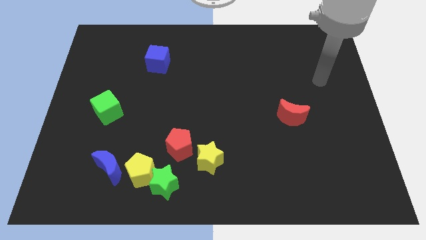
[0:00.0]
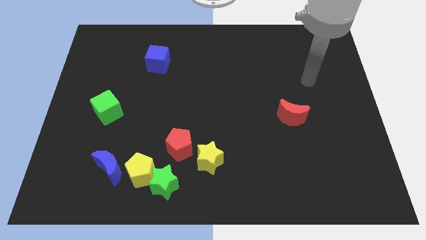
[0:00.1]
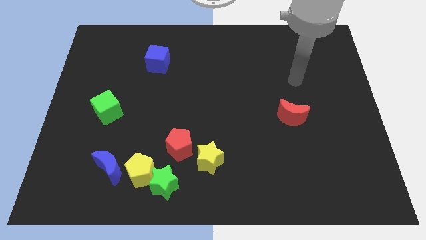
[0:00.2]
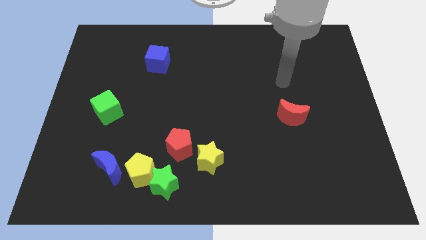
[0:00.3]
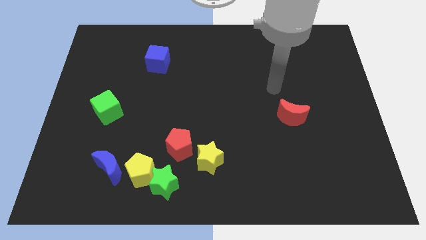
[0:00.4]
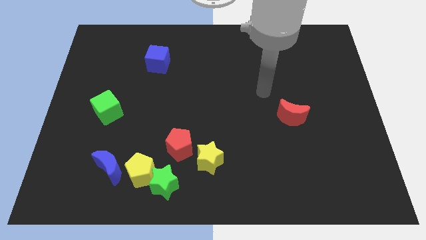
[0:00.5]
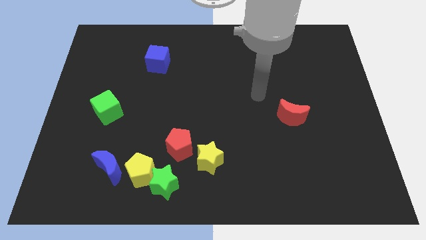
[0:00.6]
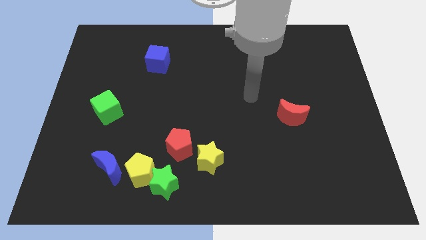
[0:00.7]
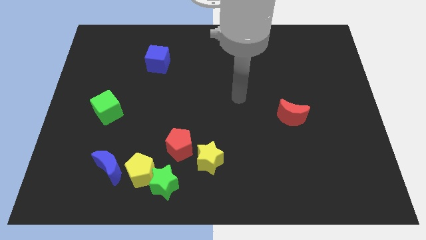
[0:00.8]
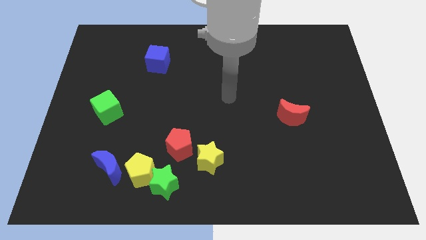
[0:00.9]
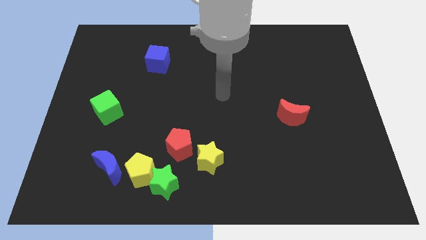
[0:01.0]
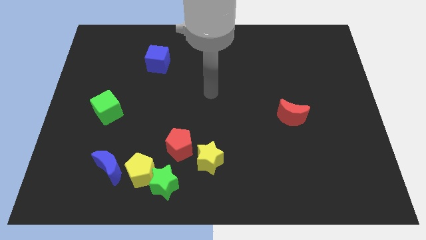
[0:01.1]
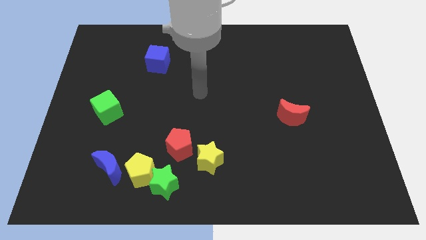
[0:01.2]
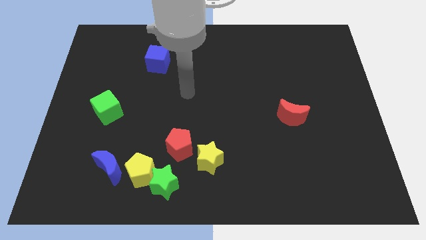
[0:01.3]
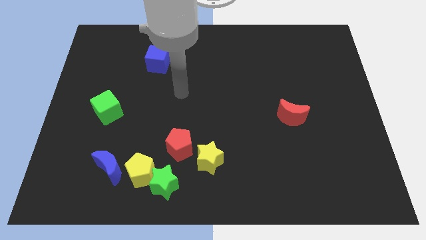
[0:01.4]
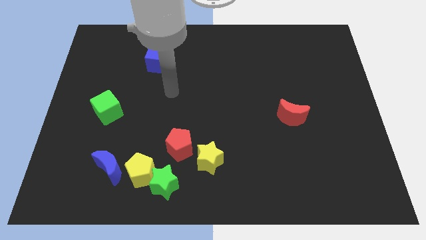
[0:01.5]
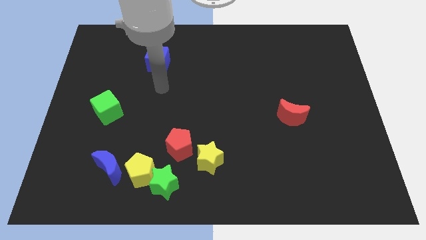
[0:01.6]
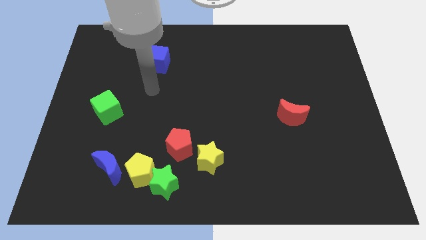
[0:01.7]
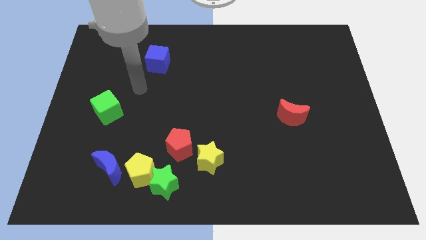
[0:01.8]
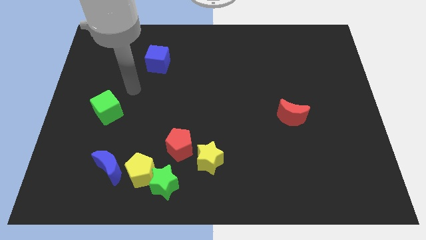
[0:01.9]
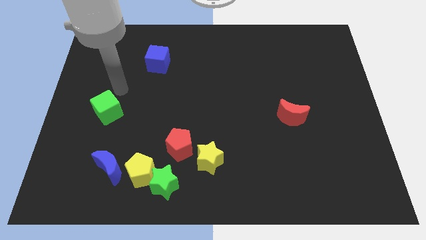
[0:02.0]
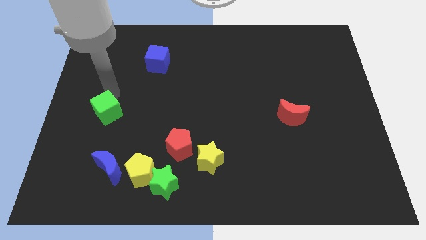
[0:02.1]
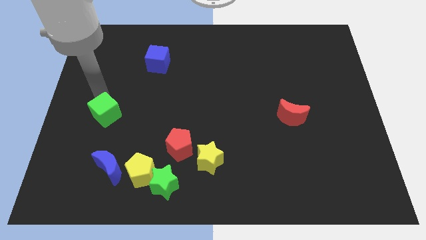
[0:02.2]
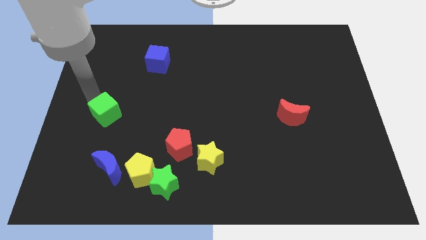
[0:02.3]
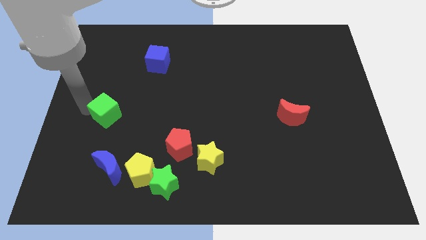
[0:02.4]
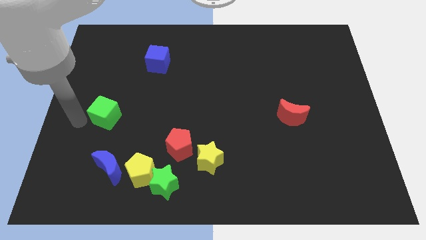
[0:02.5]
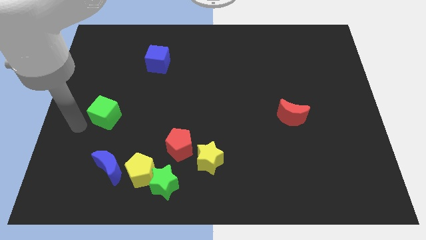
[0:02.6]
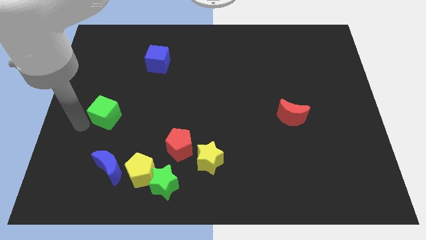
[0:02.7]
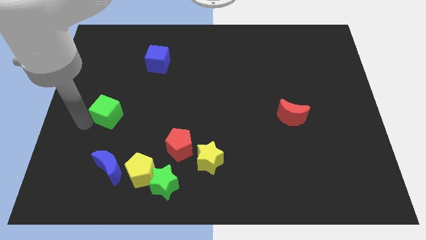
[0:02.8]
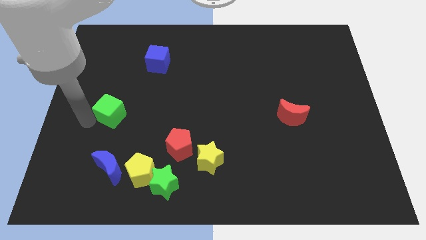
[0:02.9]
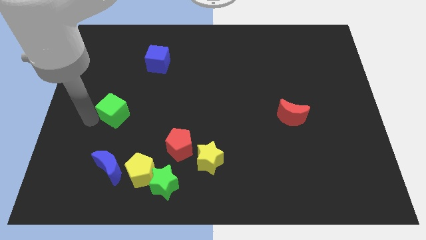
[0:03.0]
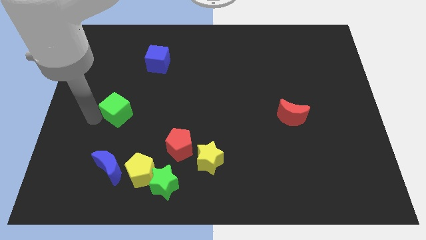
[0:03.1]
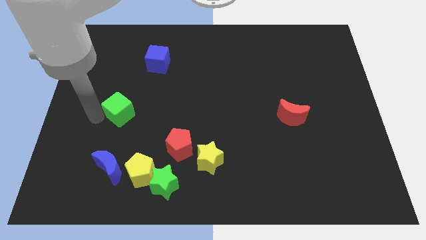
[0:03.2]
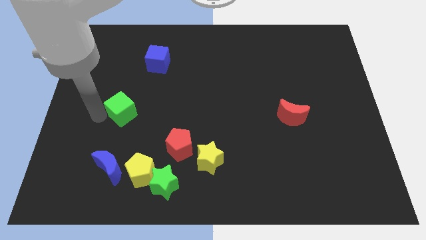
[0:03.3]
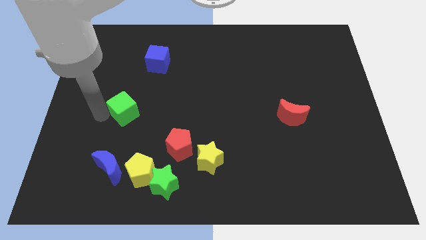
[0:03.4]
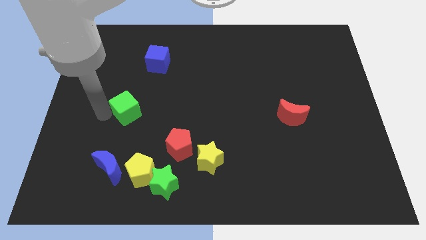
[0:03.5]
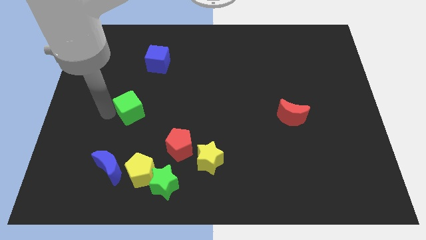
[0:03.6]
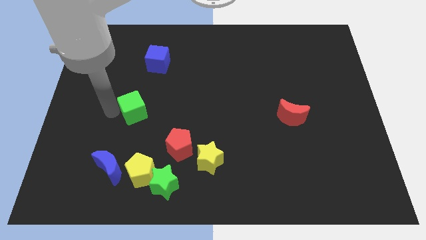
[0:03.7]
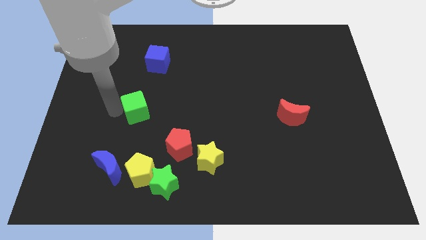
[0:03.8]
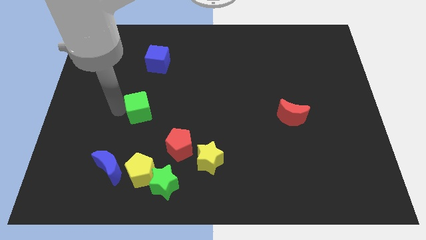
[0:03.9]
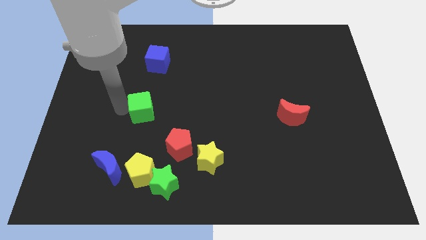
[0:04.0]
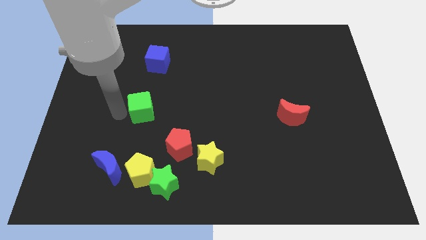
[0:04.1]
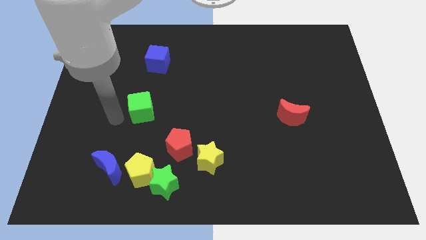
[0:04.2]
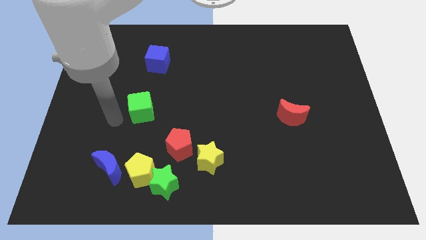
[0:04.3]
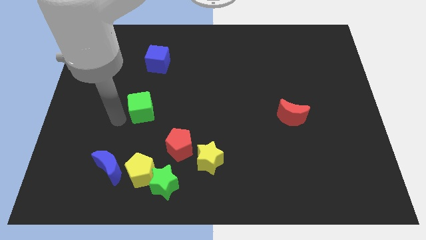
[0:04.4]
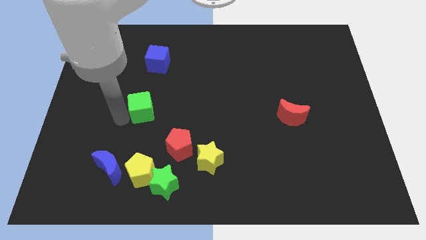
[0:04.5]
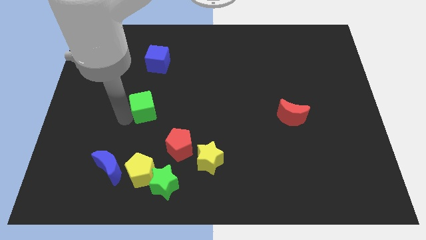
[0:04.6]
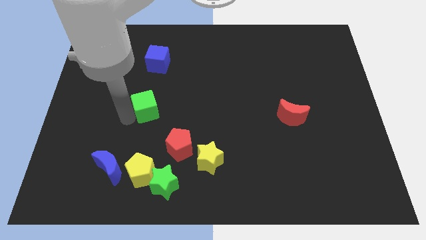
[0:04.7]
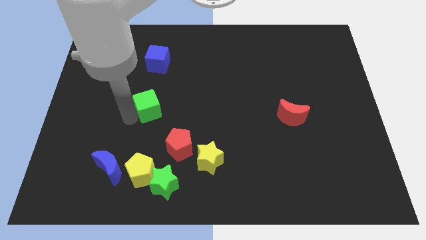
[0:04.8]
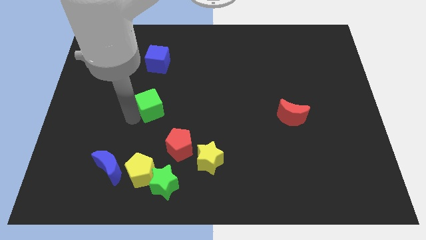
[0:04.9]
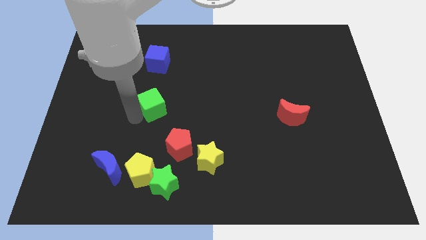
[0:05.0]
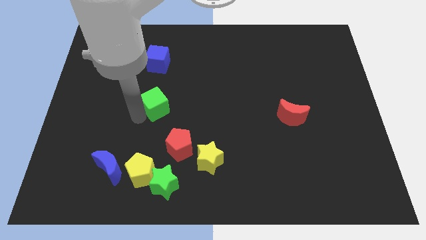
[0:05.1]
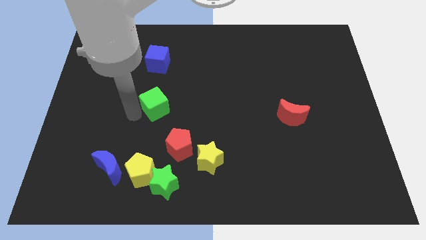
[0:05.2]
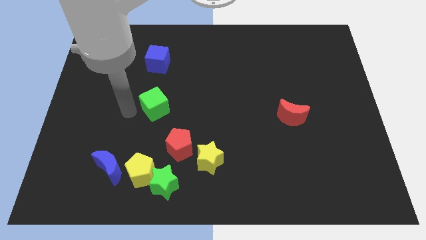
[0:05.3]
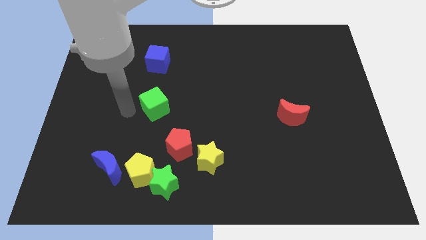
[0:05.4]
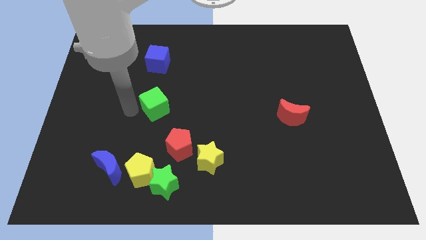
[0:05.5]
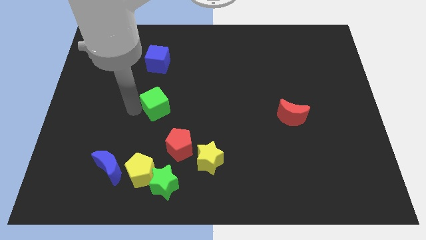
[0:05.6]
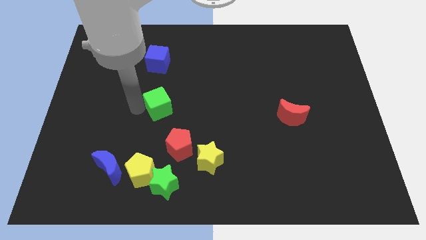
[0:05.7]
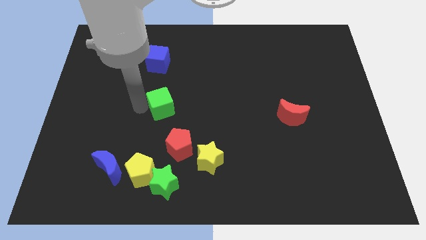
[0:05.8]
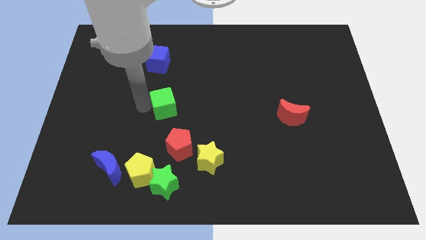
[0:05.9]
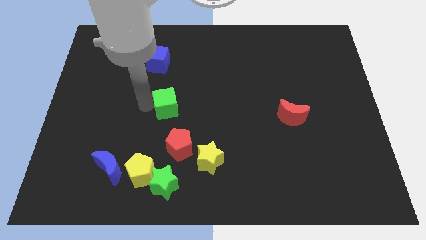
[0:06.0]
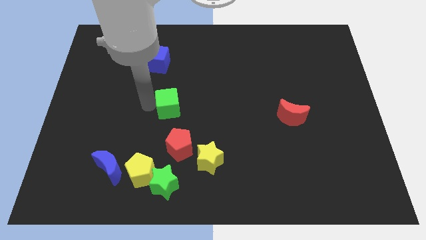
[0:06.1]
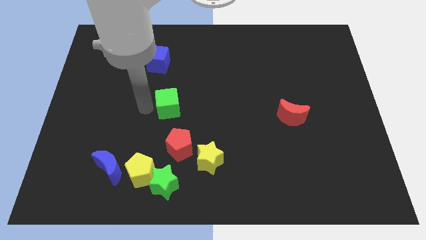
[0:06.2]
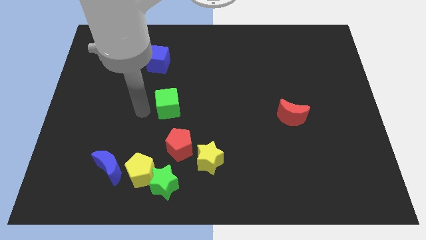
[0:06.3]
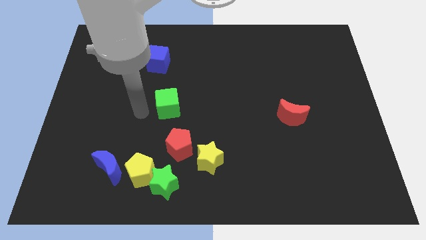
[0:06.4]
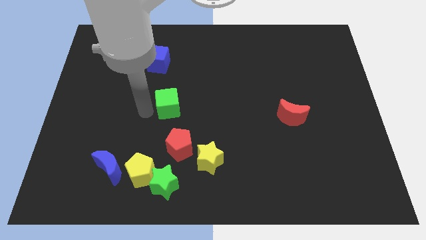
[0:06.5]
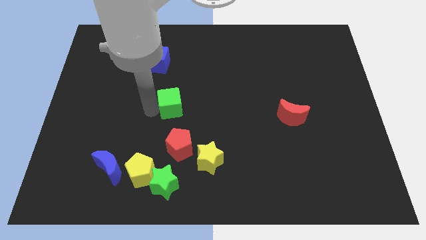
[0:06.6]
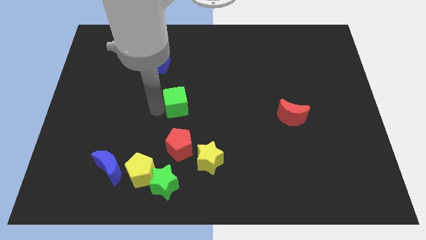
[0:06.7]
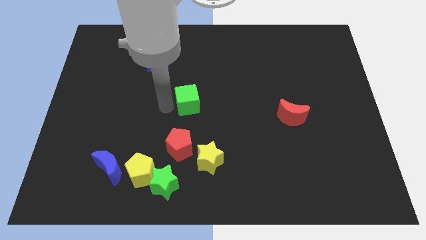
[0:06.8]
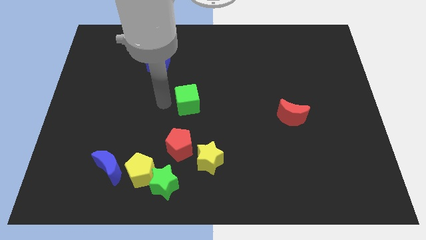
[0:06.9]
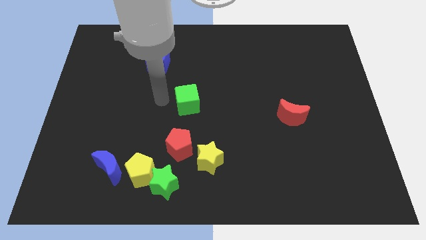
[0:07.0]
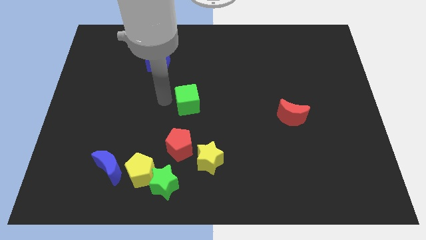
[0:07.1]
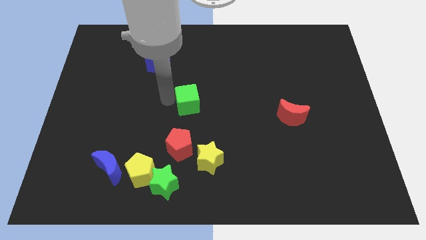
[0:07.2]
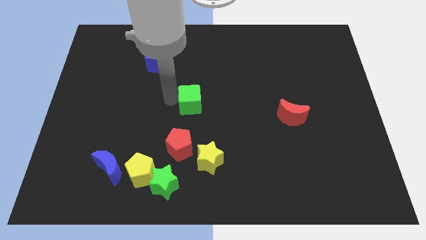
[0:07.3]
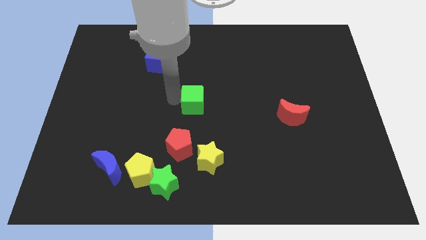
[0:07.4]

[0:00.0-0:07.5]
push the green cube to the right

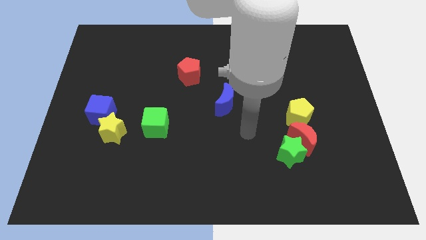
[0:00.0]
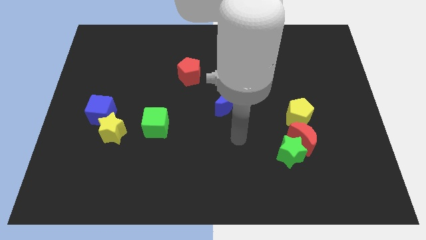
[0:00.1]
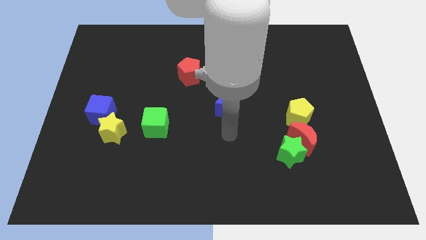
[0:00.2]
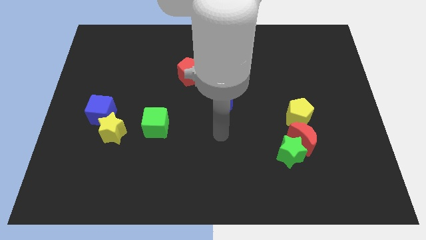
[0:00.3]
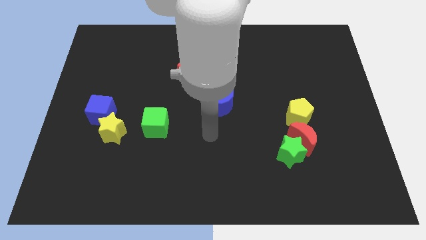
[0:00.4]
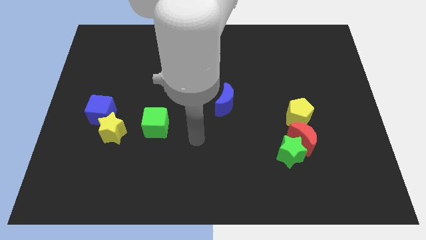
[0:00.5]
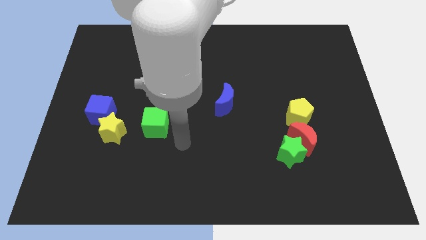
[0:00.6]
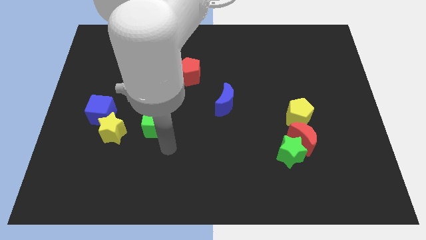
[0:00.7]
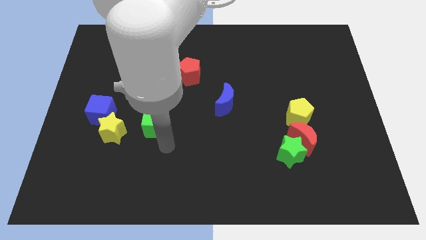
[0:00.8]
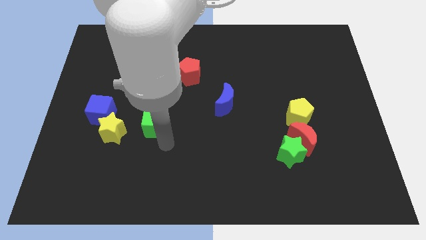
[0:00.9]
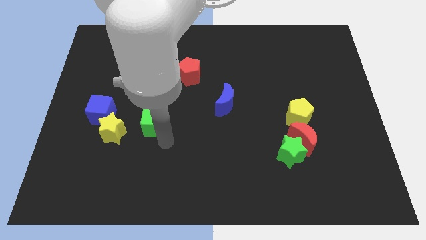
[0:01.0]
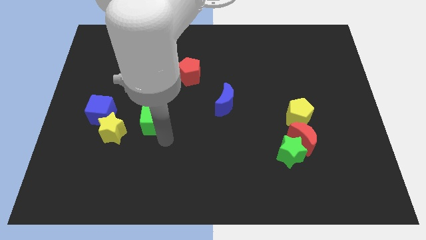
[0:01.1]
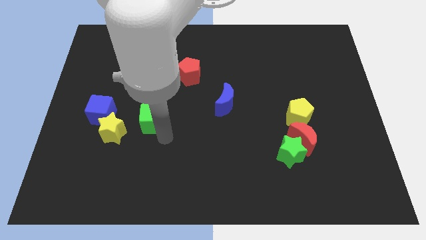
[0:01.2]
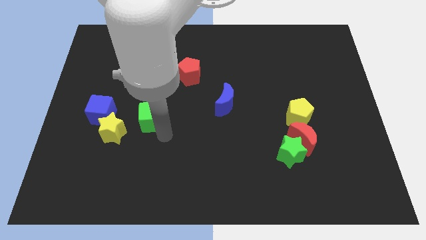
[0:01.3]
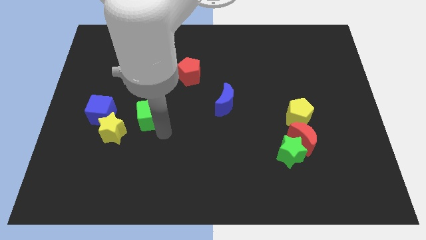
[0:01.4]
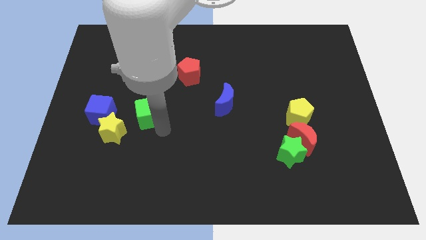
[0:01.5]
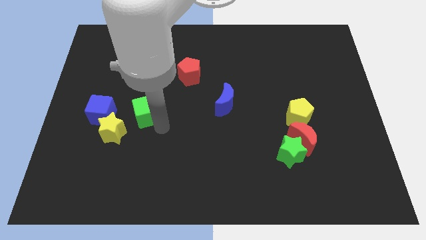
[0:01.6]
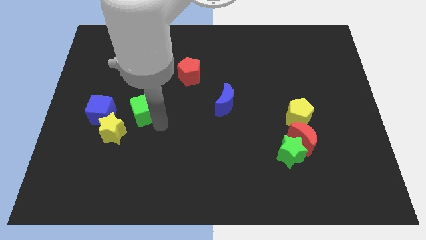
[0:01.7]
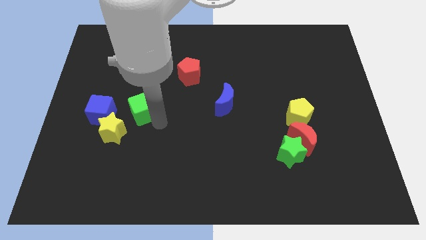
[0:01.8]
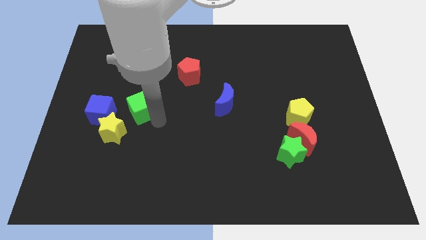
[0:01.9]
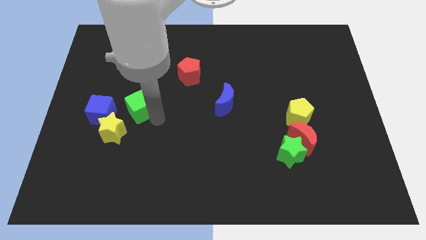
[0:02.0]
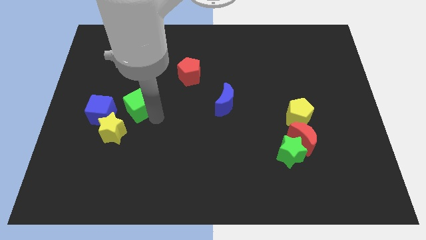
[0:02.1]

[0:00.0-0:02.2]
slide the green cube up and to the left diagonally a bit
